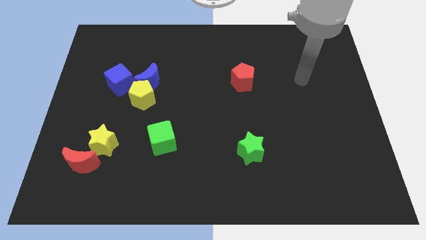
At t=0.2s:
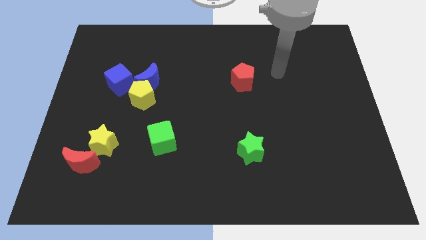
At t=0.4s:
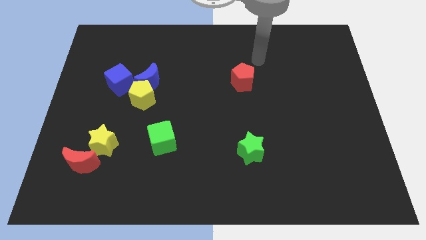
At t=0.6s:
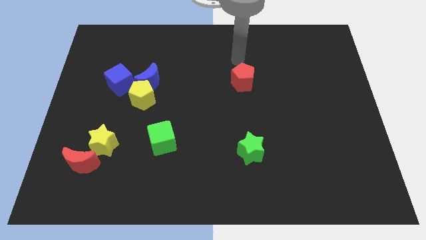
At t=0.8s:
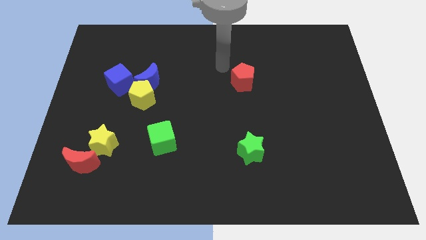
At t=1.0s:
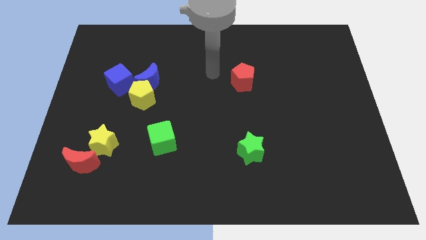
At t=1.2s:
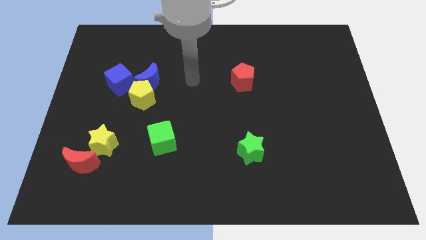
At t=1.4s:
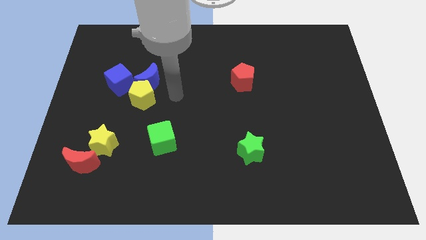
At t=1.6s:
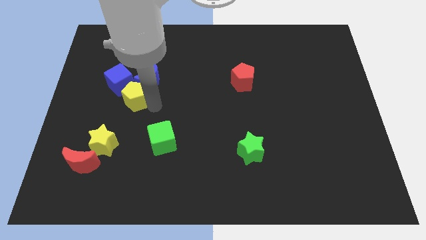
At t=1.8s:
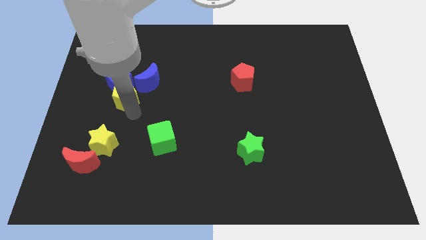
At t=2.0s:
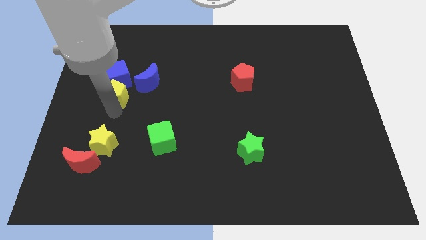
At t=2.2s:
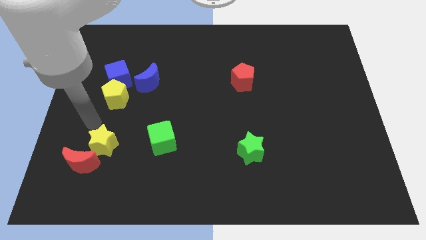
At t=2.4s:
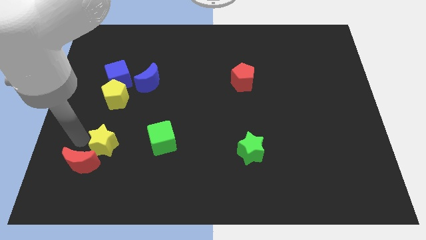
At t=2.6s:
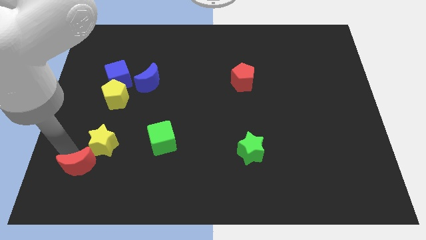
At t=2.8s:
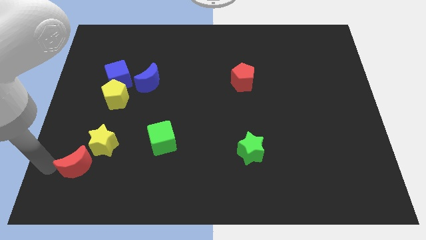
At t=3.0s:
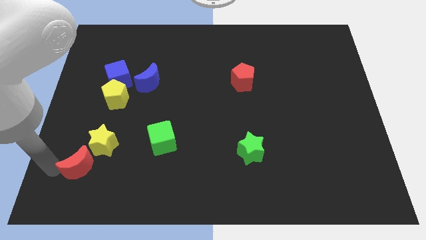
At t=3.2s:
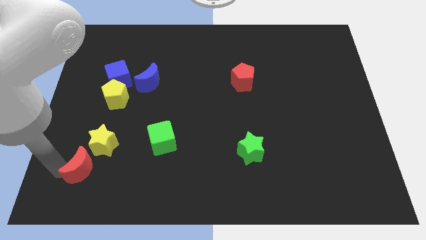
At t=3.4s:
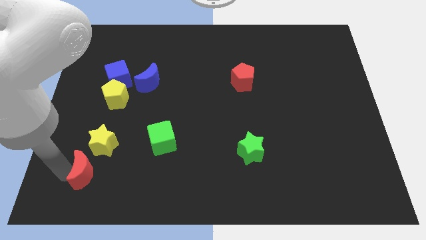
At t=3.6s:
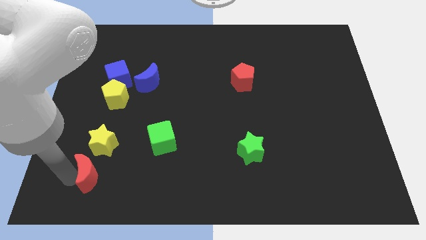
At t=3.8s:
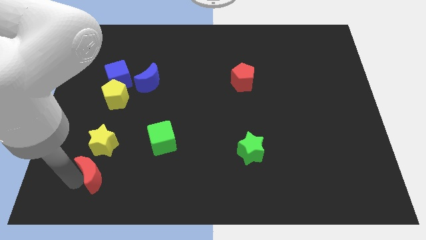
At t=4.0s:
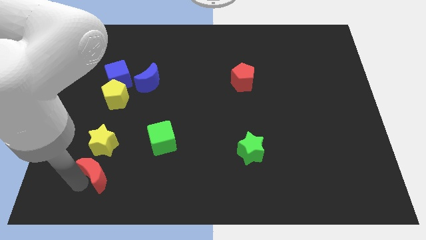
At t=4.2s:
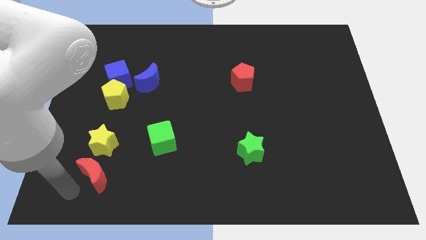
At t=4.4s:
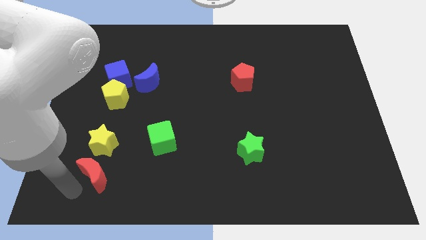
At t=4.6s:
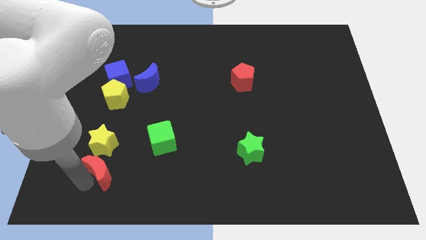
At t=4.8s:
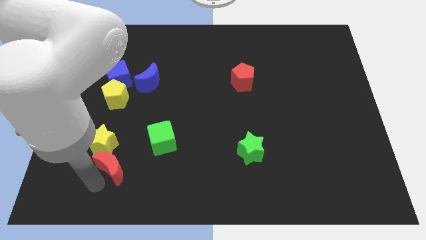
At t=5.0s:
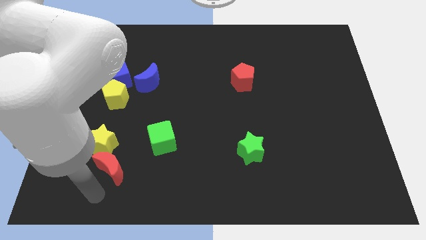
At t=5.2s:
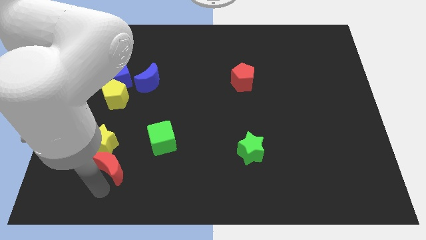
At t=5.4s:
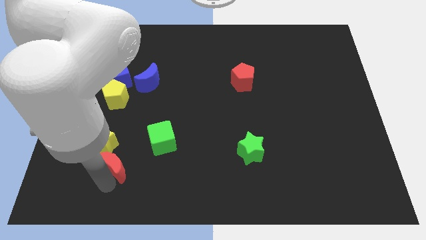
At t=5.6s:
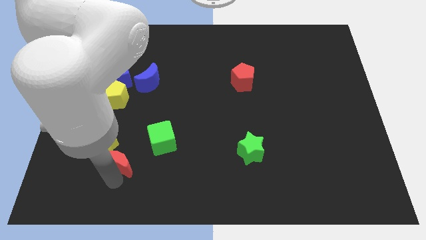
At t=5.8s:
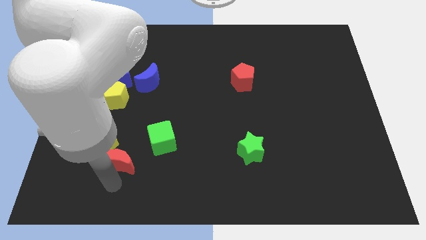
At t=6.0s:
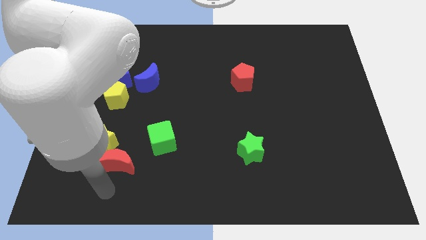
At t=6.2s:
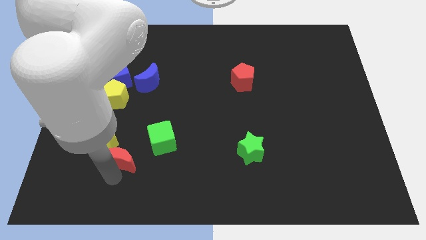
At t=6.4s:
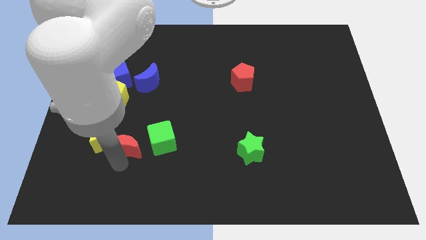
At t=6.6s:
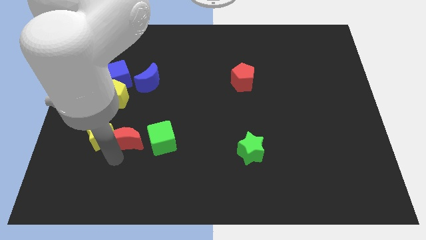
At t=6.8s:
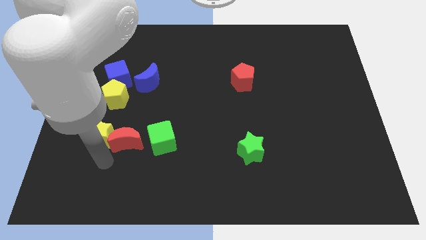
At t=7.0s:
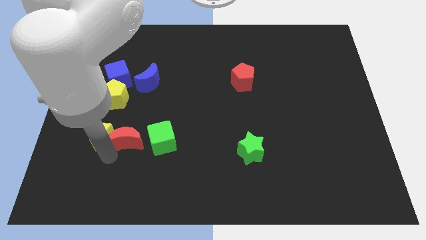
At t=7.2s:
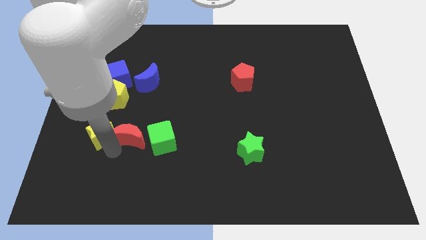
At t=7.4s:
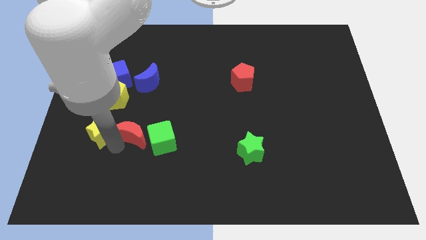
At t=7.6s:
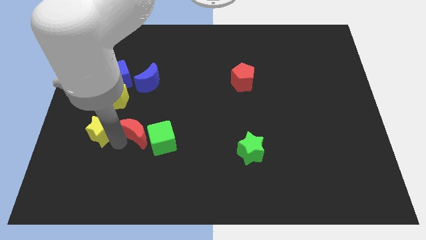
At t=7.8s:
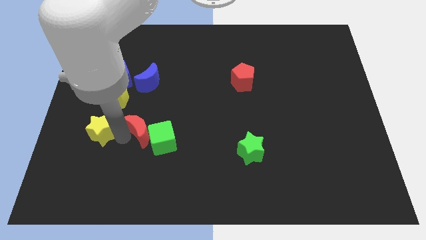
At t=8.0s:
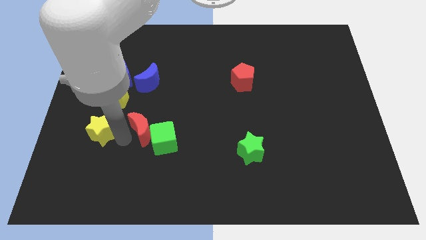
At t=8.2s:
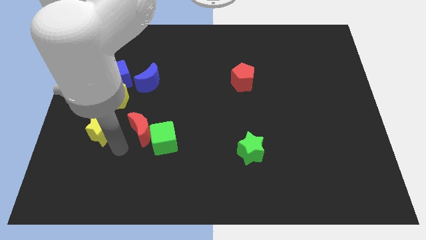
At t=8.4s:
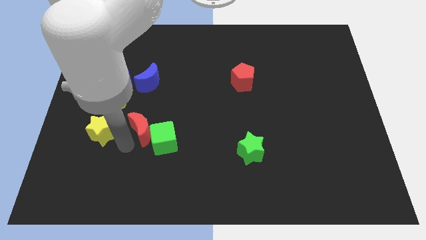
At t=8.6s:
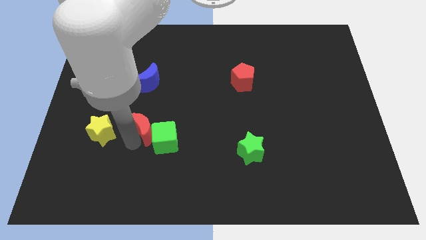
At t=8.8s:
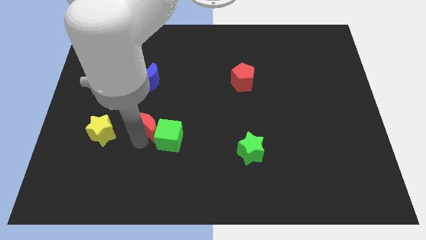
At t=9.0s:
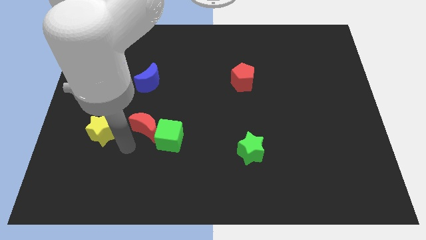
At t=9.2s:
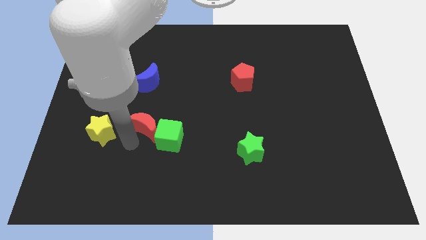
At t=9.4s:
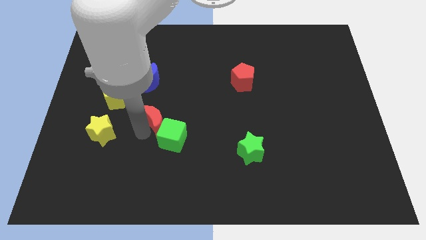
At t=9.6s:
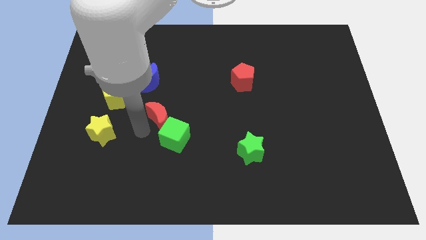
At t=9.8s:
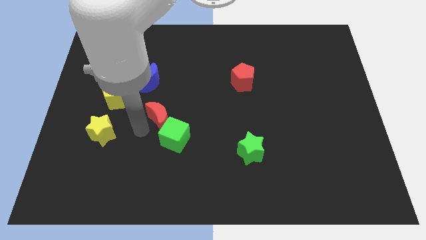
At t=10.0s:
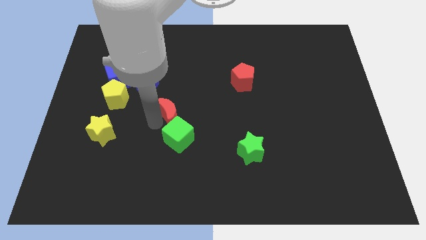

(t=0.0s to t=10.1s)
move the red moon to the middle

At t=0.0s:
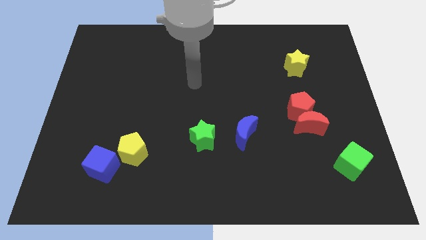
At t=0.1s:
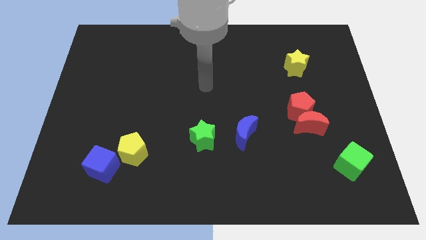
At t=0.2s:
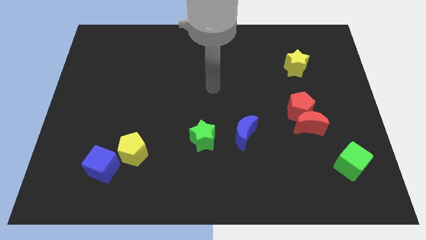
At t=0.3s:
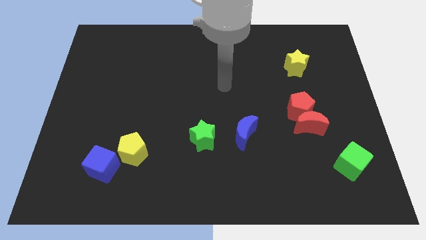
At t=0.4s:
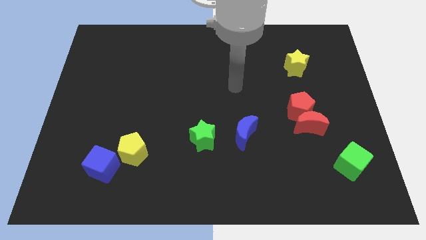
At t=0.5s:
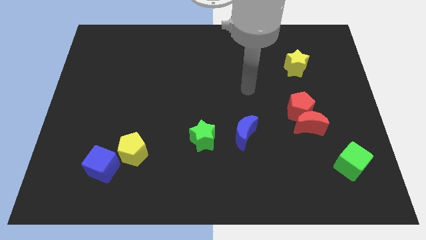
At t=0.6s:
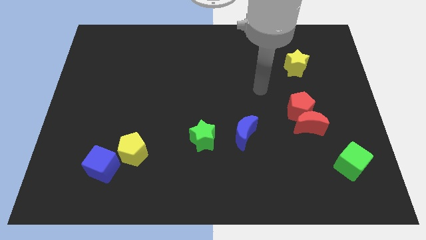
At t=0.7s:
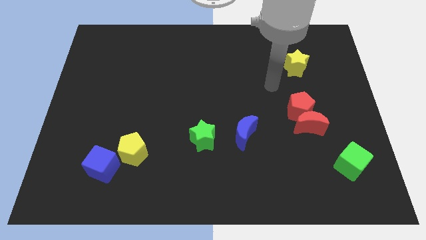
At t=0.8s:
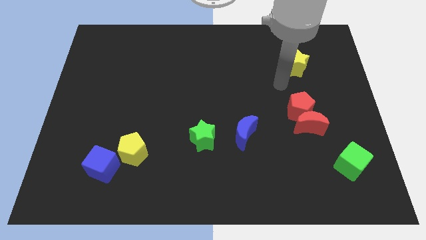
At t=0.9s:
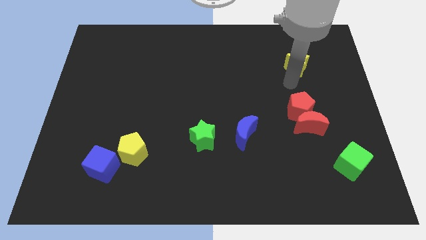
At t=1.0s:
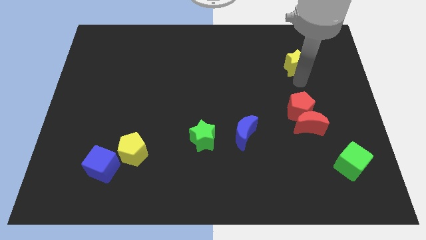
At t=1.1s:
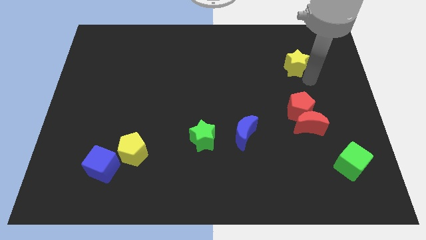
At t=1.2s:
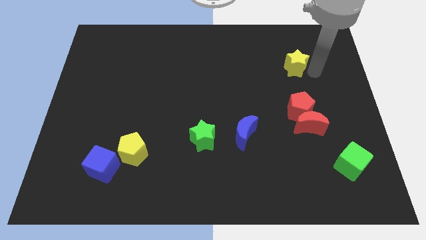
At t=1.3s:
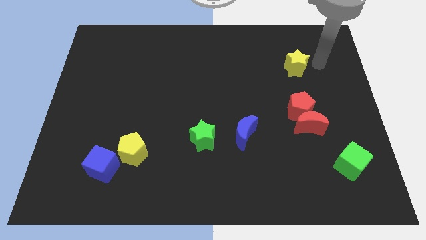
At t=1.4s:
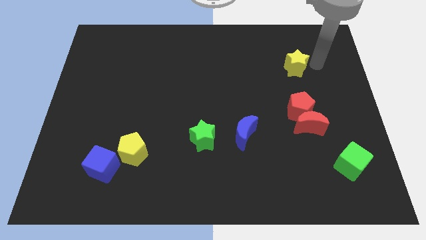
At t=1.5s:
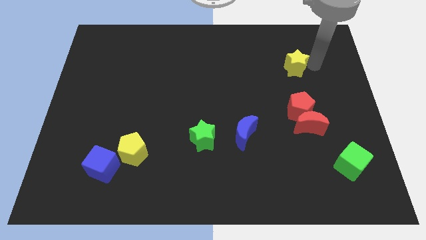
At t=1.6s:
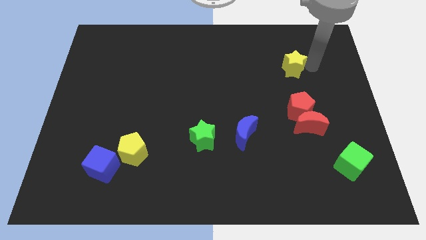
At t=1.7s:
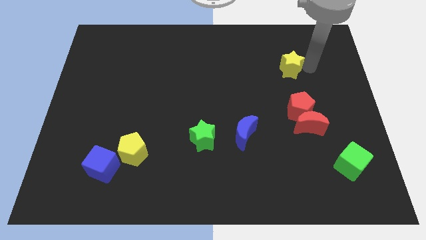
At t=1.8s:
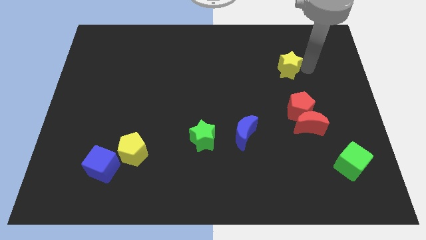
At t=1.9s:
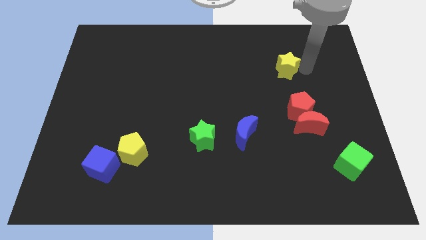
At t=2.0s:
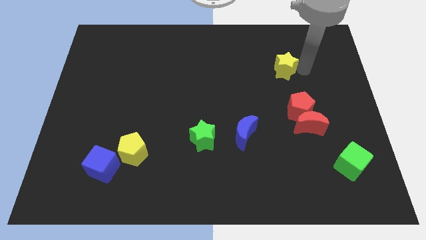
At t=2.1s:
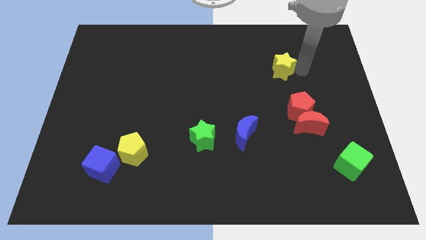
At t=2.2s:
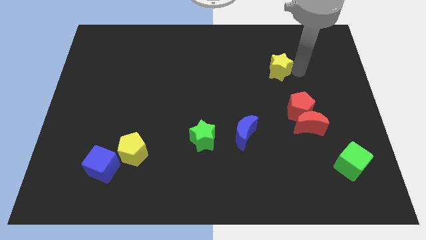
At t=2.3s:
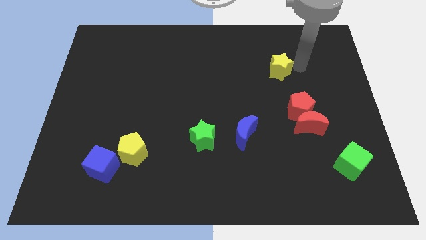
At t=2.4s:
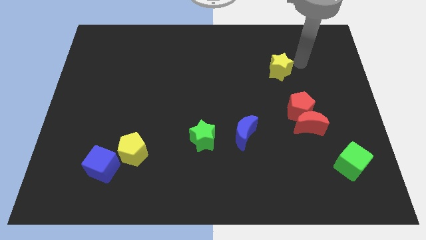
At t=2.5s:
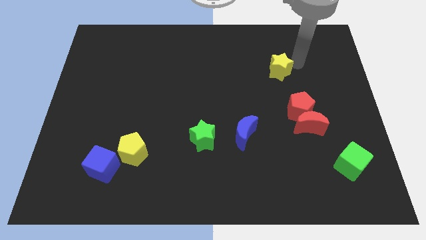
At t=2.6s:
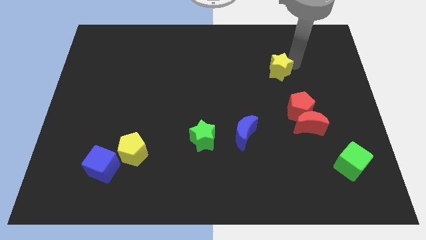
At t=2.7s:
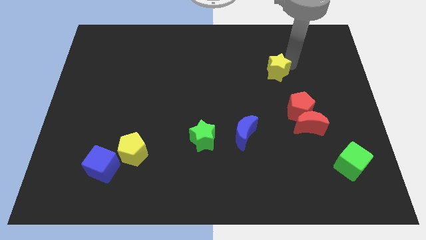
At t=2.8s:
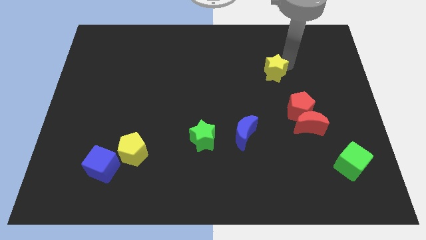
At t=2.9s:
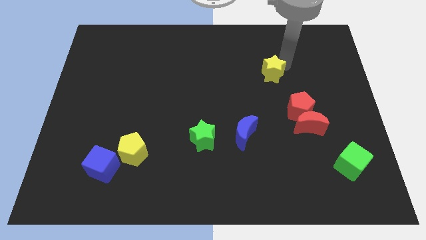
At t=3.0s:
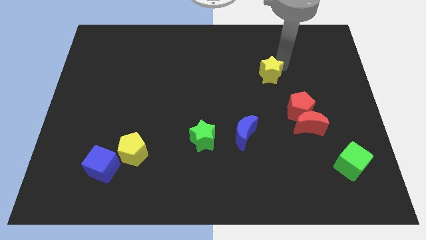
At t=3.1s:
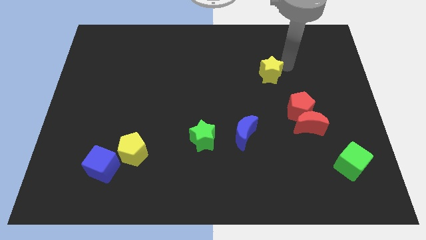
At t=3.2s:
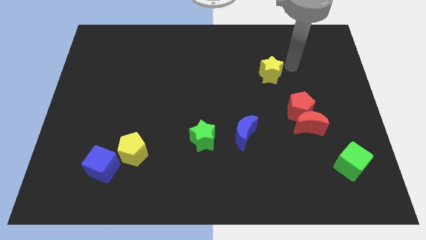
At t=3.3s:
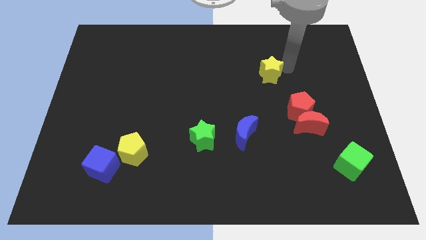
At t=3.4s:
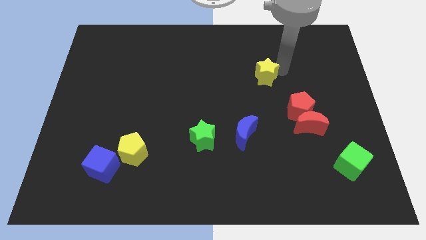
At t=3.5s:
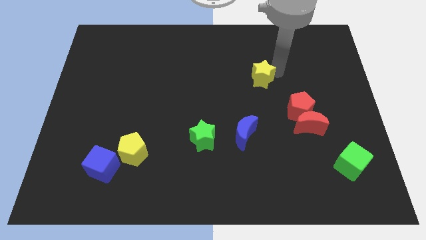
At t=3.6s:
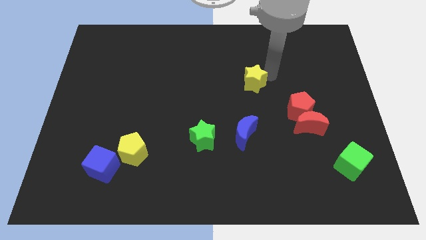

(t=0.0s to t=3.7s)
slide the yellow star to the middle

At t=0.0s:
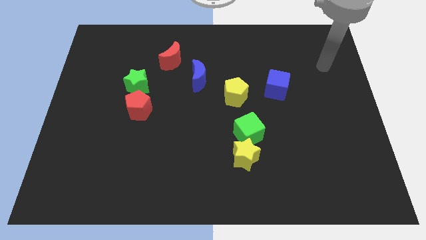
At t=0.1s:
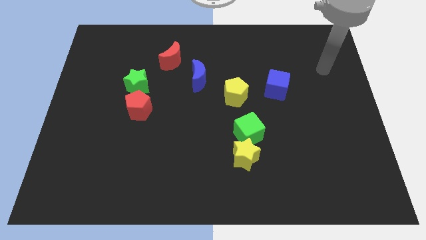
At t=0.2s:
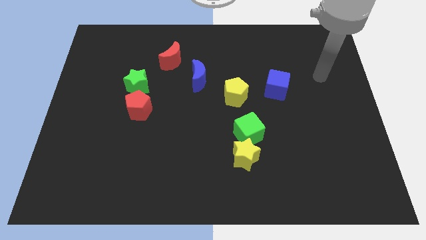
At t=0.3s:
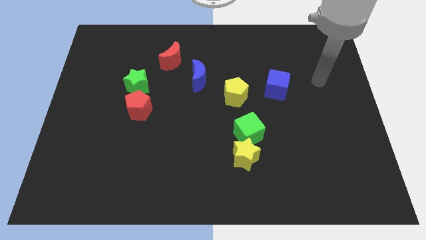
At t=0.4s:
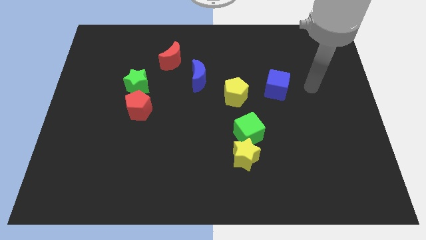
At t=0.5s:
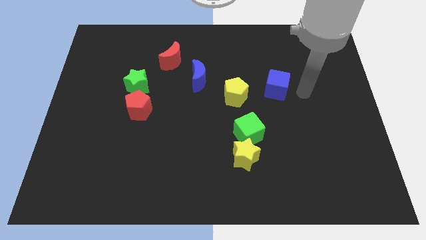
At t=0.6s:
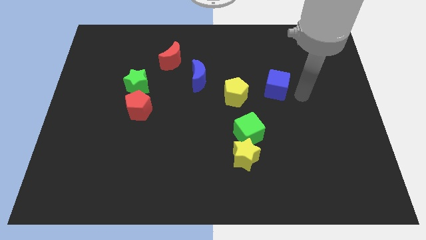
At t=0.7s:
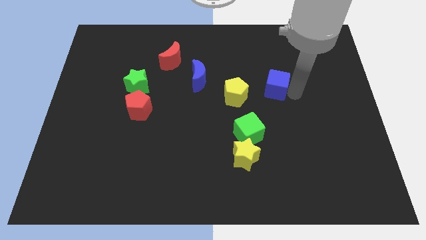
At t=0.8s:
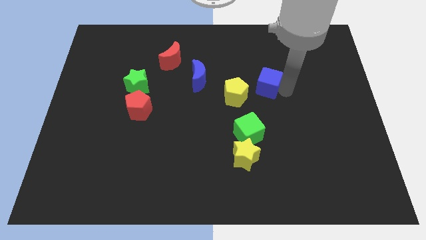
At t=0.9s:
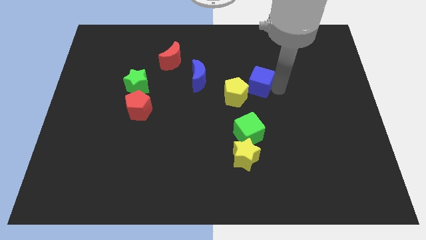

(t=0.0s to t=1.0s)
put the blue cube to the center